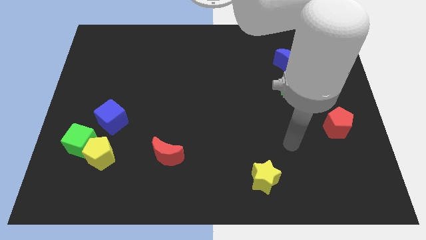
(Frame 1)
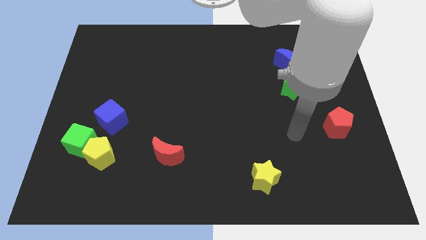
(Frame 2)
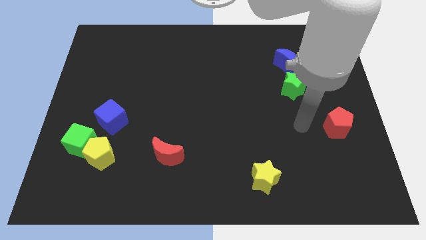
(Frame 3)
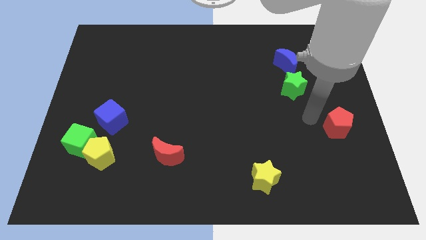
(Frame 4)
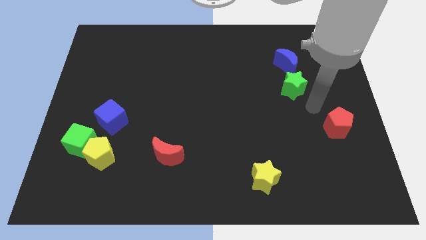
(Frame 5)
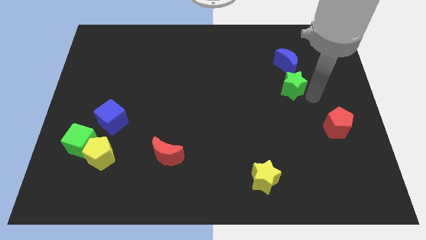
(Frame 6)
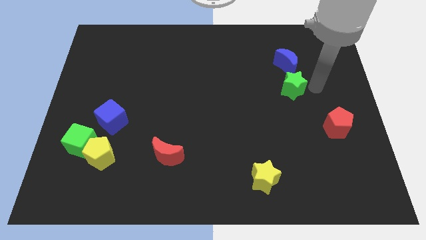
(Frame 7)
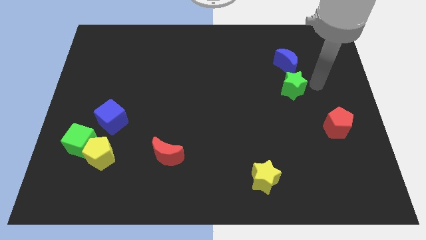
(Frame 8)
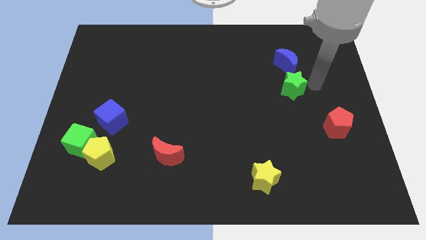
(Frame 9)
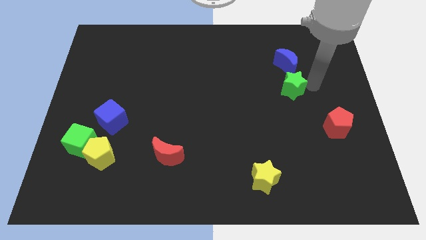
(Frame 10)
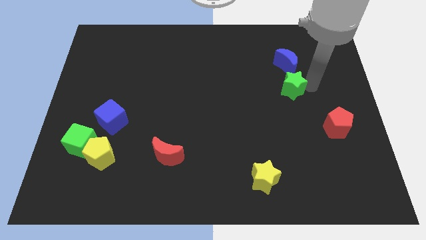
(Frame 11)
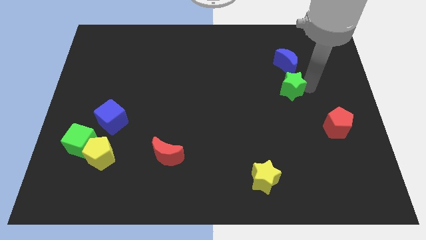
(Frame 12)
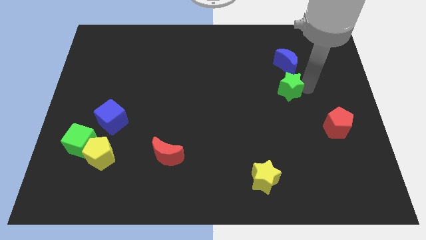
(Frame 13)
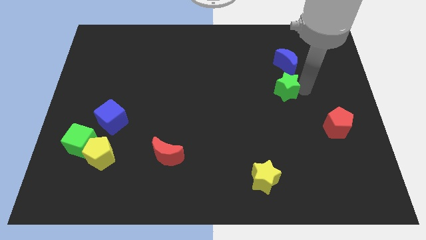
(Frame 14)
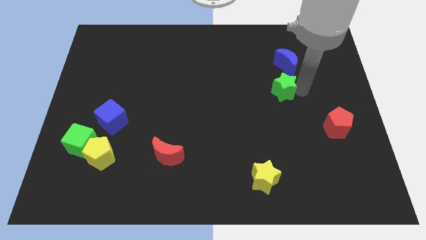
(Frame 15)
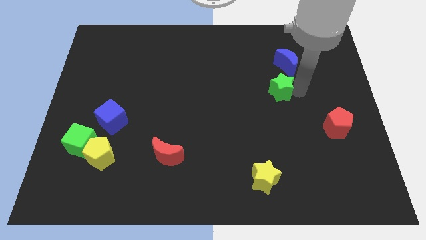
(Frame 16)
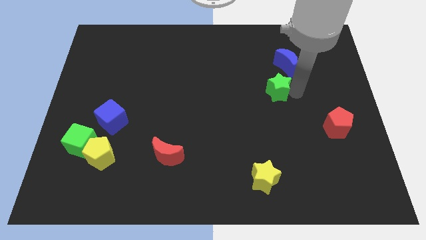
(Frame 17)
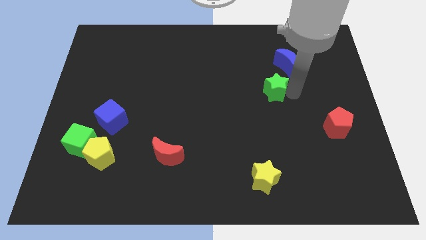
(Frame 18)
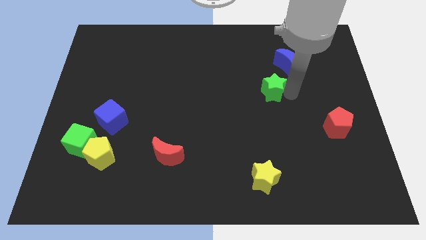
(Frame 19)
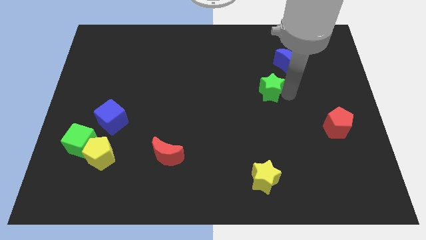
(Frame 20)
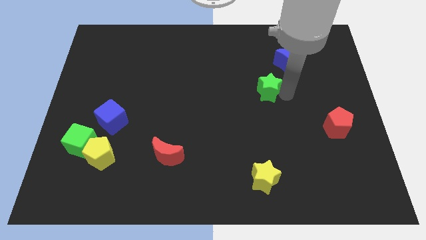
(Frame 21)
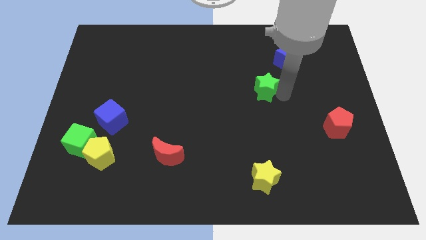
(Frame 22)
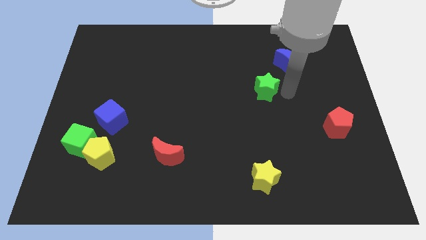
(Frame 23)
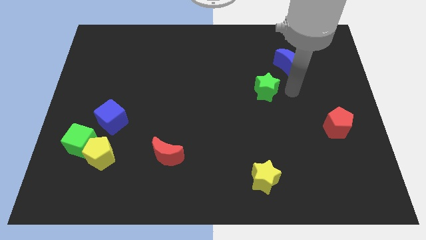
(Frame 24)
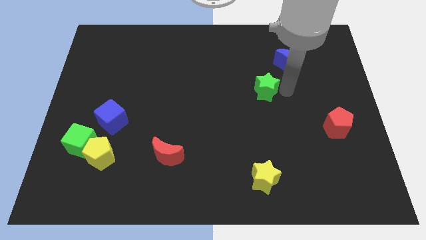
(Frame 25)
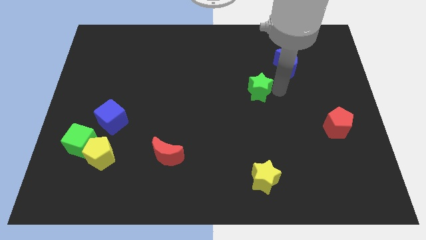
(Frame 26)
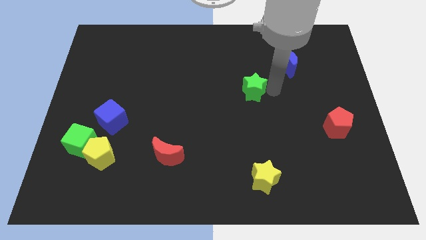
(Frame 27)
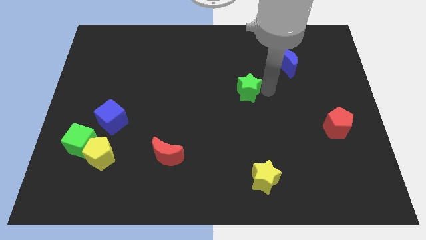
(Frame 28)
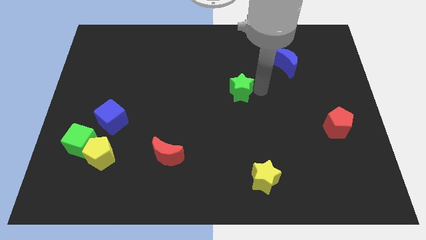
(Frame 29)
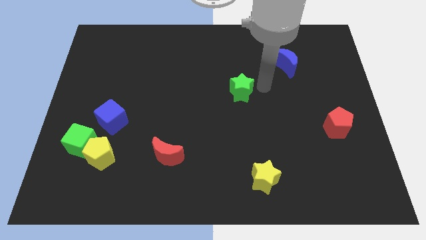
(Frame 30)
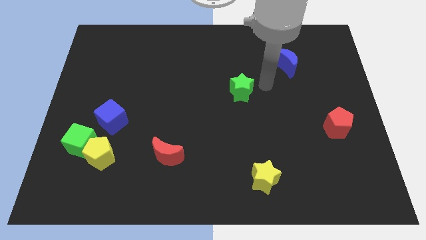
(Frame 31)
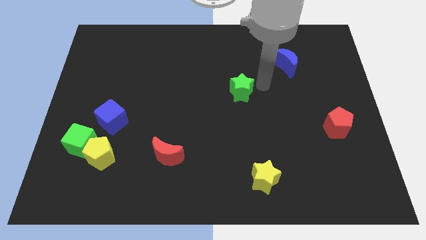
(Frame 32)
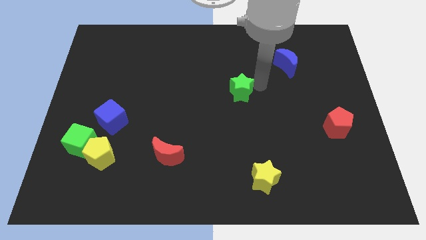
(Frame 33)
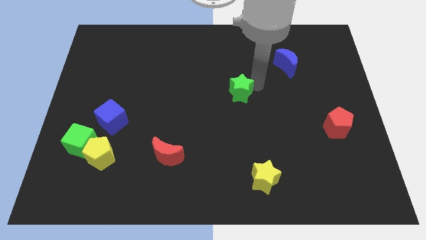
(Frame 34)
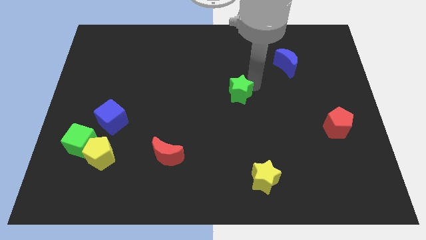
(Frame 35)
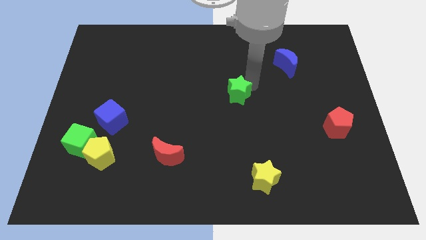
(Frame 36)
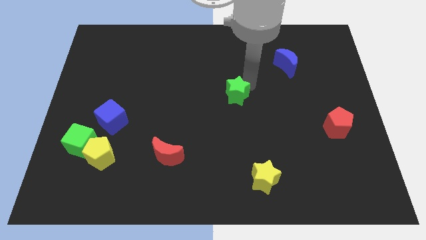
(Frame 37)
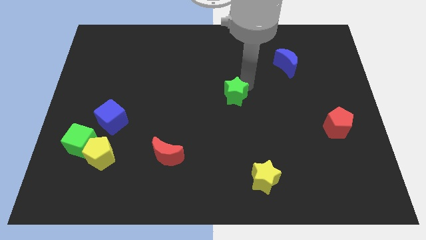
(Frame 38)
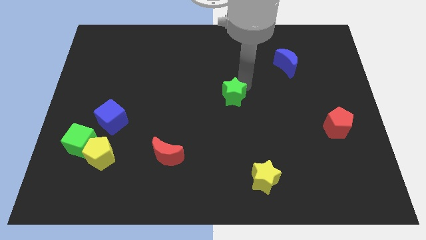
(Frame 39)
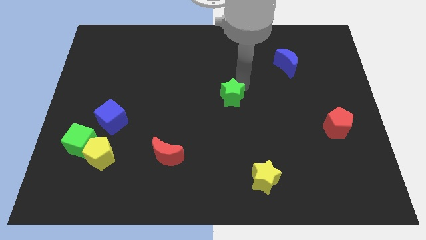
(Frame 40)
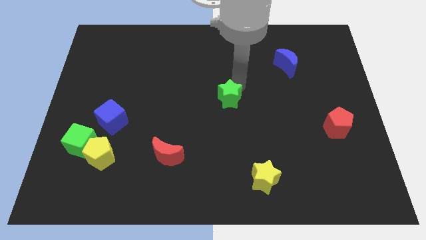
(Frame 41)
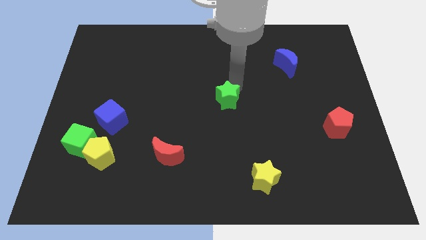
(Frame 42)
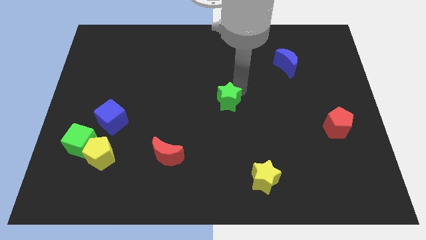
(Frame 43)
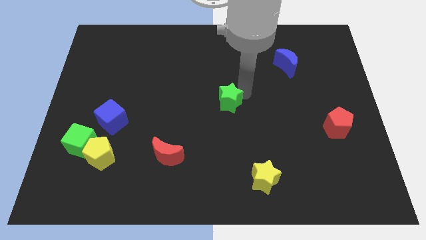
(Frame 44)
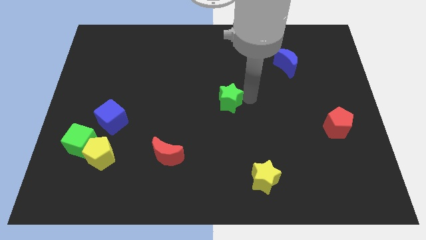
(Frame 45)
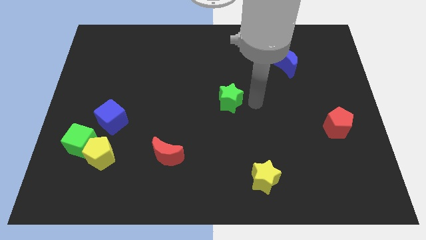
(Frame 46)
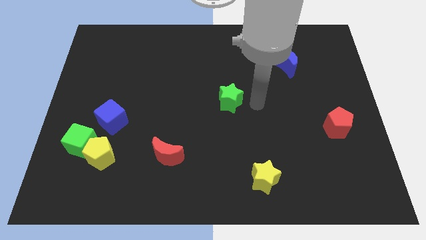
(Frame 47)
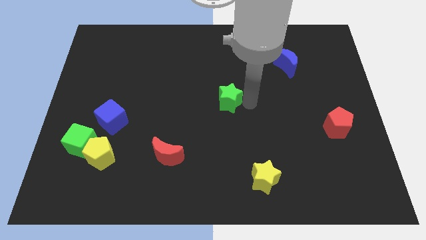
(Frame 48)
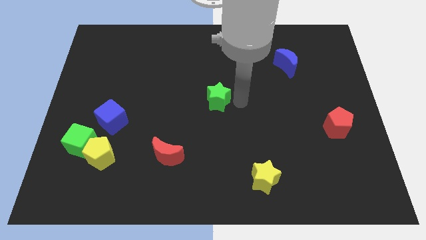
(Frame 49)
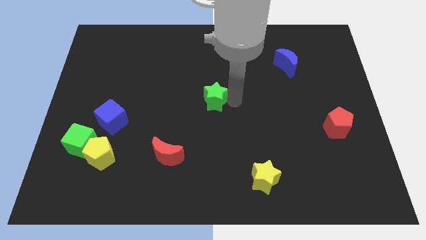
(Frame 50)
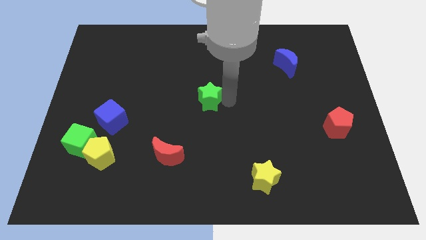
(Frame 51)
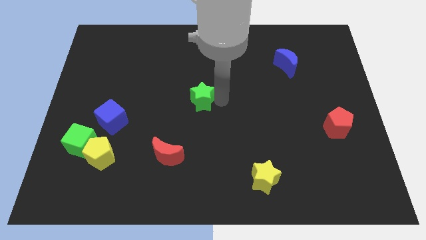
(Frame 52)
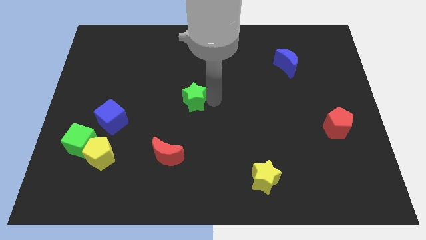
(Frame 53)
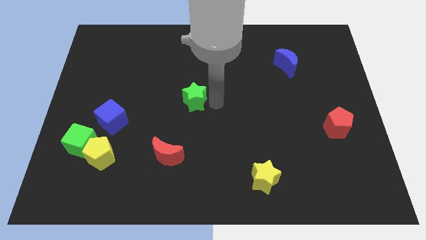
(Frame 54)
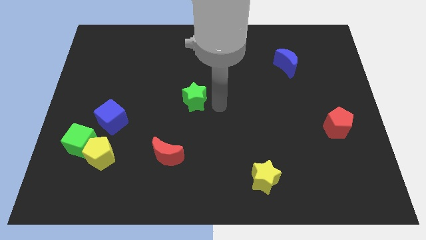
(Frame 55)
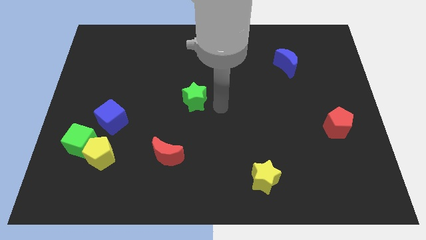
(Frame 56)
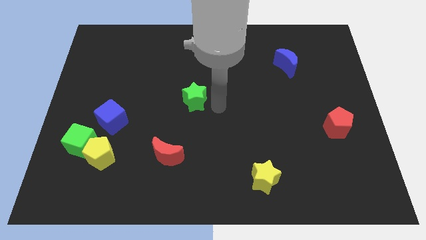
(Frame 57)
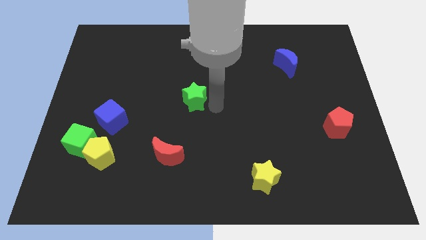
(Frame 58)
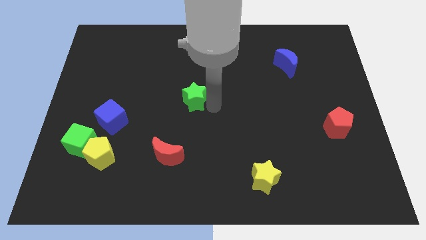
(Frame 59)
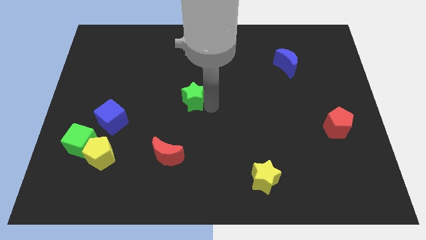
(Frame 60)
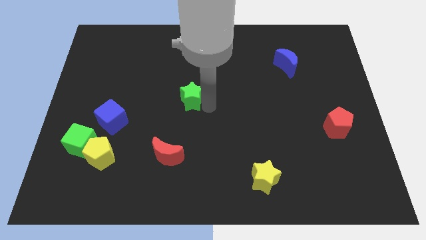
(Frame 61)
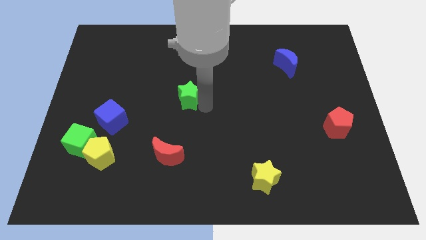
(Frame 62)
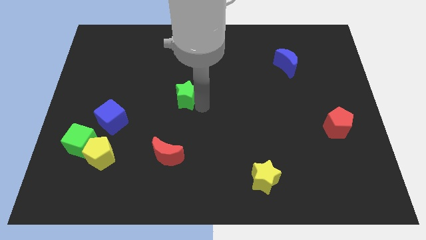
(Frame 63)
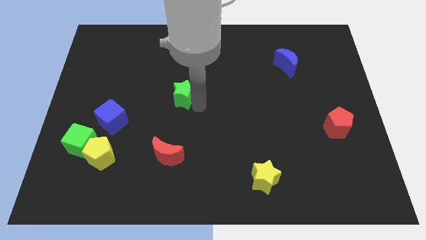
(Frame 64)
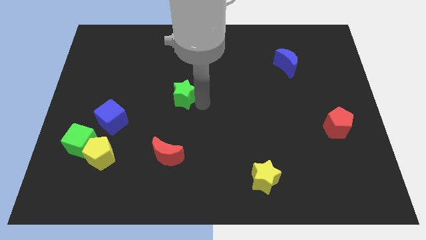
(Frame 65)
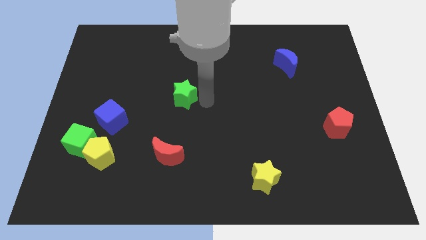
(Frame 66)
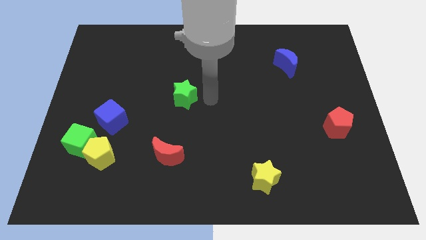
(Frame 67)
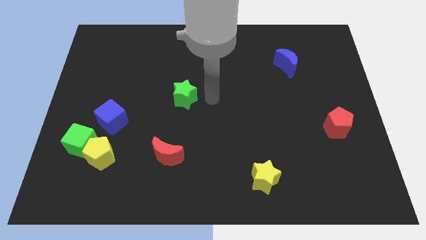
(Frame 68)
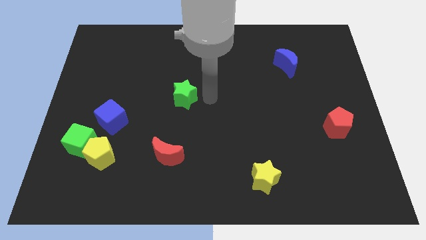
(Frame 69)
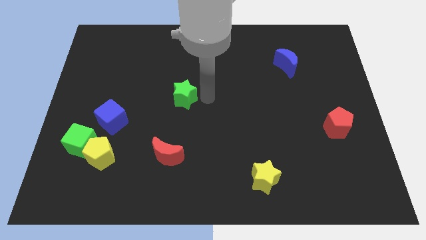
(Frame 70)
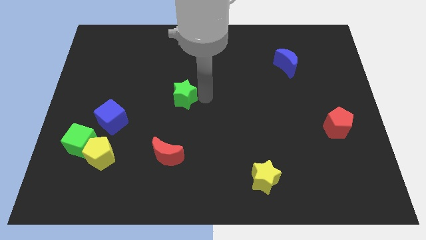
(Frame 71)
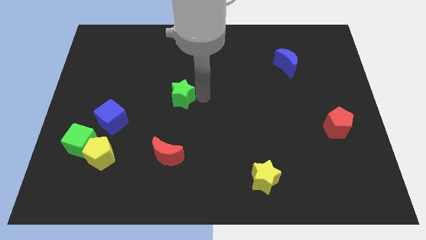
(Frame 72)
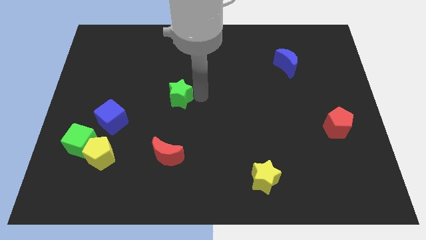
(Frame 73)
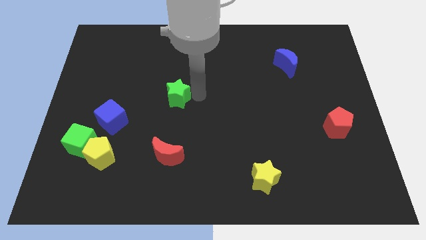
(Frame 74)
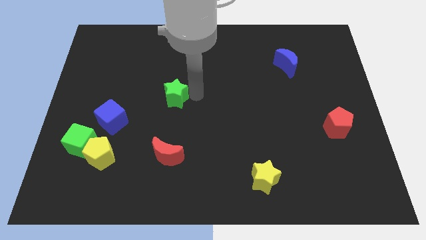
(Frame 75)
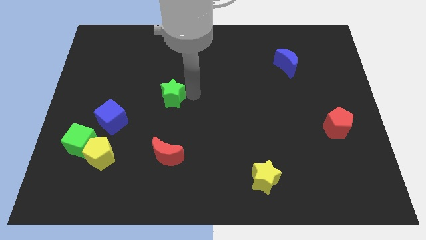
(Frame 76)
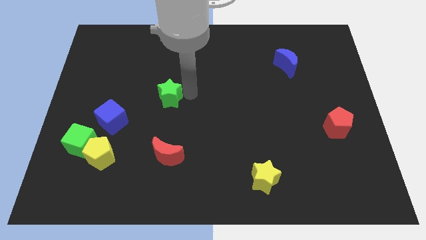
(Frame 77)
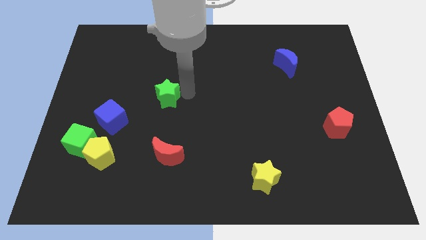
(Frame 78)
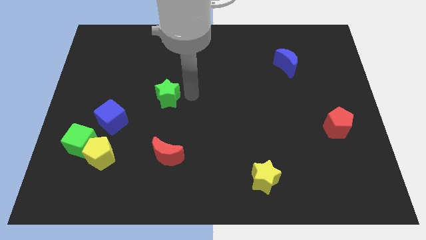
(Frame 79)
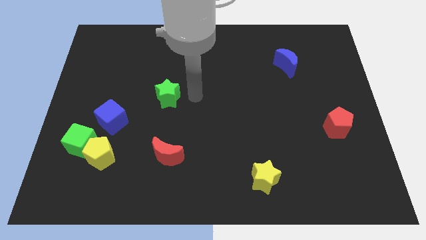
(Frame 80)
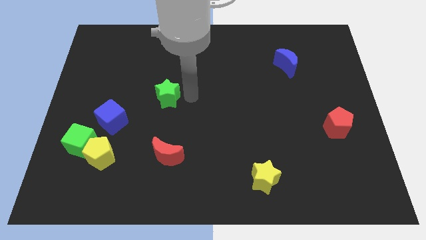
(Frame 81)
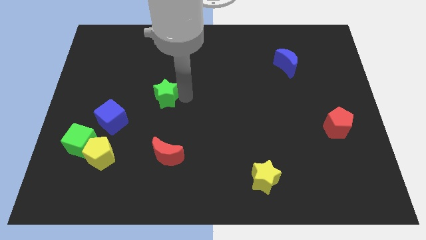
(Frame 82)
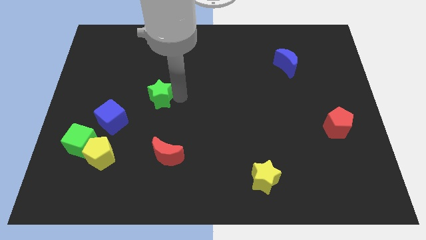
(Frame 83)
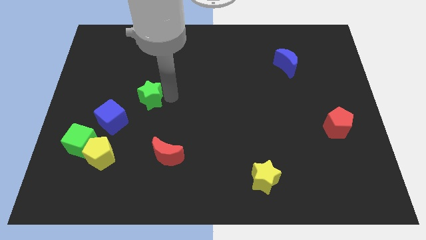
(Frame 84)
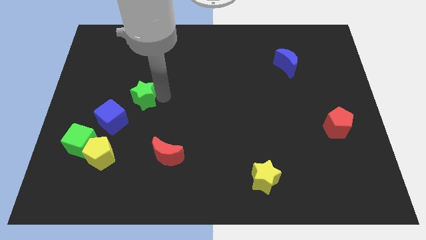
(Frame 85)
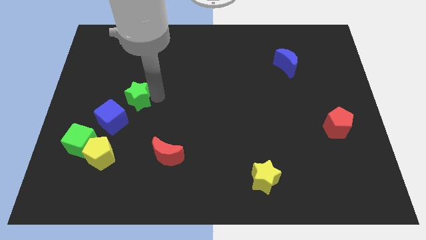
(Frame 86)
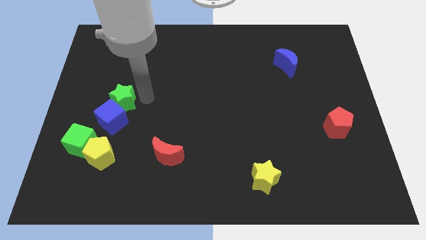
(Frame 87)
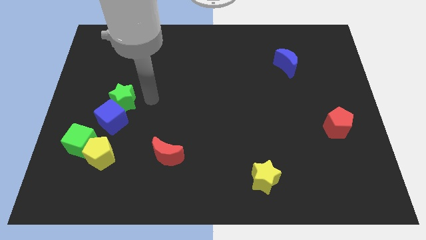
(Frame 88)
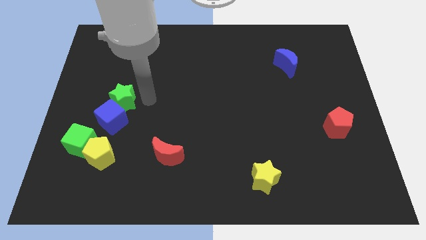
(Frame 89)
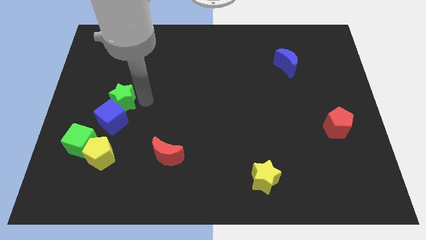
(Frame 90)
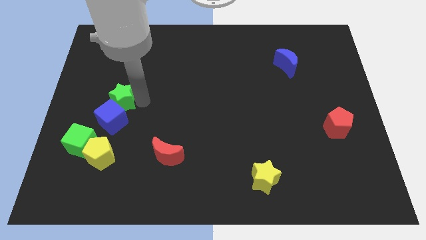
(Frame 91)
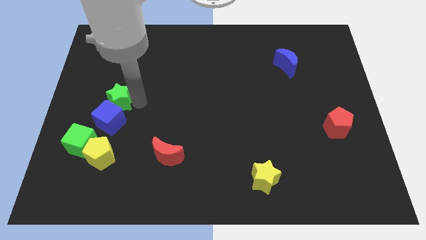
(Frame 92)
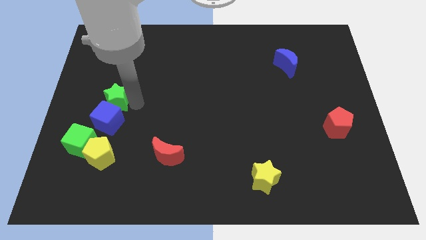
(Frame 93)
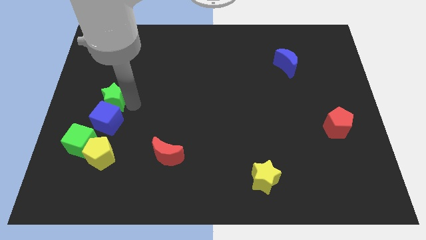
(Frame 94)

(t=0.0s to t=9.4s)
slide the green star to the top left side of the blue cube
